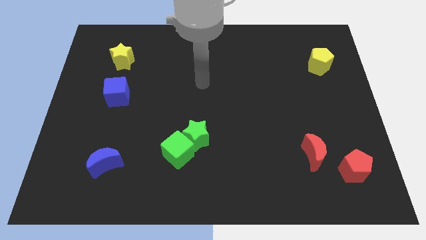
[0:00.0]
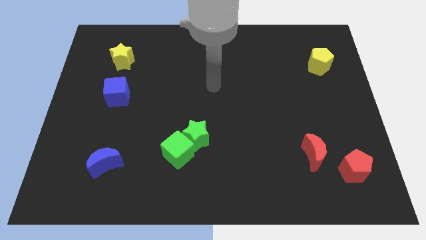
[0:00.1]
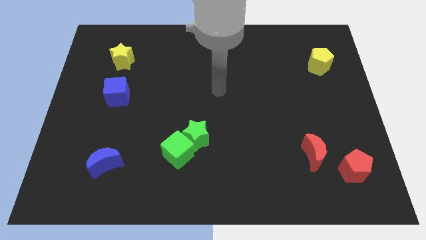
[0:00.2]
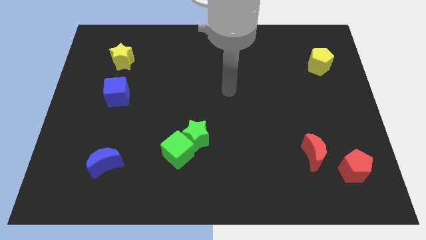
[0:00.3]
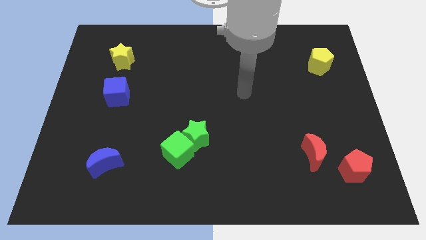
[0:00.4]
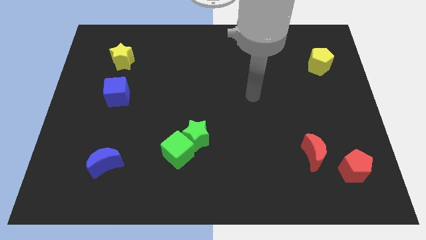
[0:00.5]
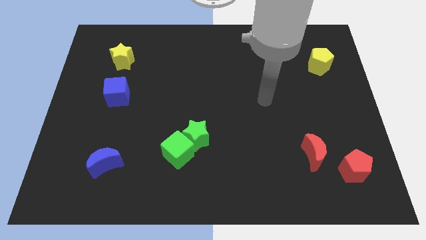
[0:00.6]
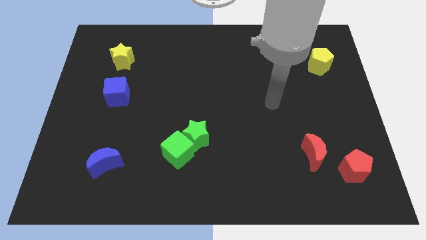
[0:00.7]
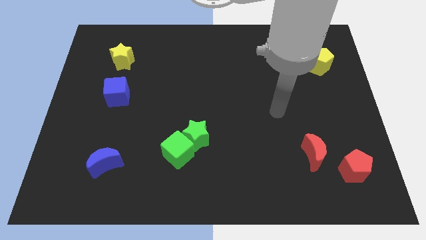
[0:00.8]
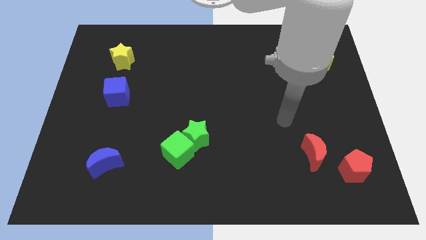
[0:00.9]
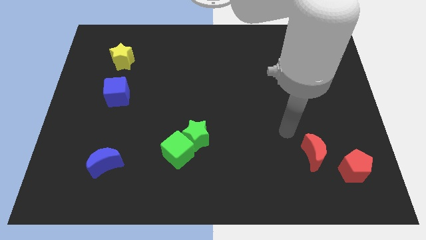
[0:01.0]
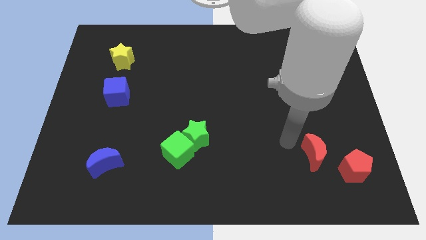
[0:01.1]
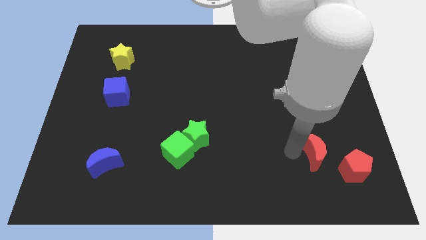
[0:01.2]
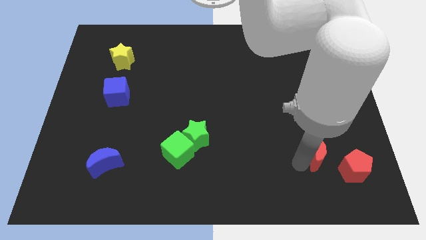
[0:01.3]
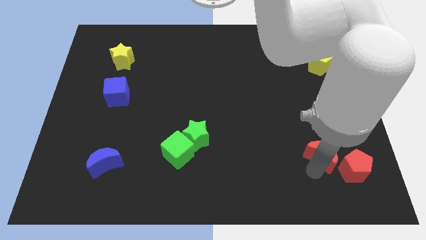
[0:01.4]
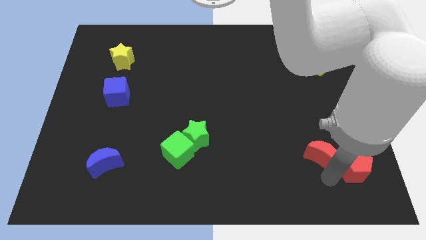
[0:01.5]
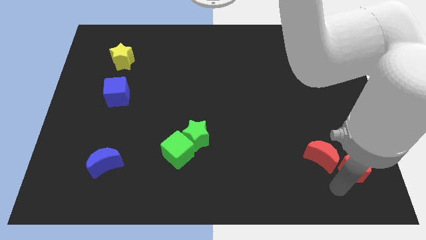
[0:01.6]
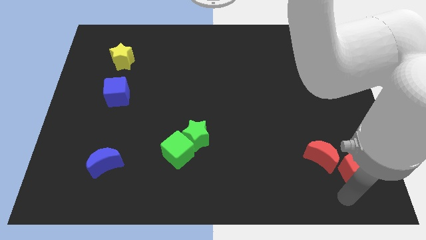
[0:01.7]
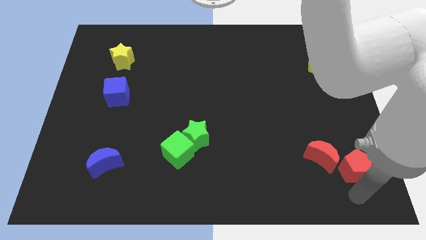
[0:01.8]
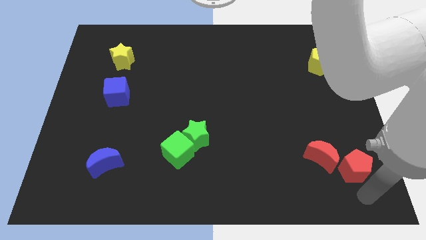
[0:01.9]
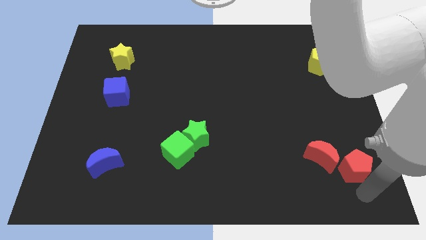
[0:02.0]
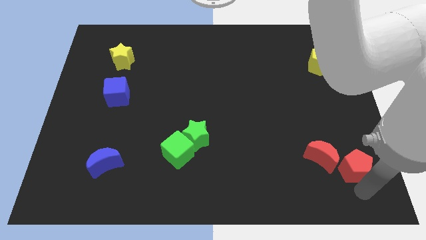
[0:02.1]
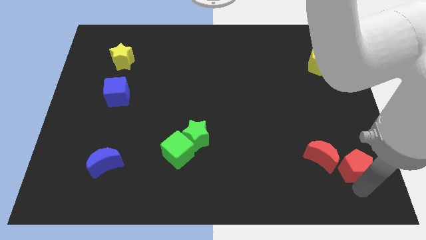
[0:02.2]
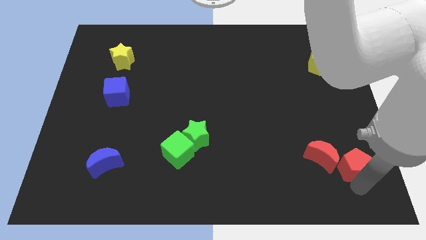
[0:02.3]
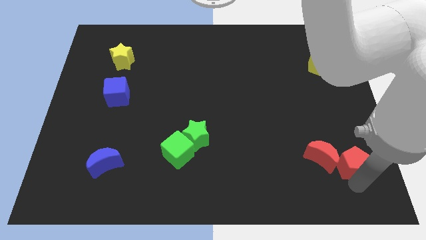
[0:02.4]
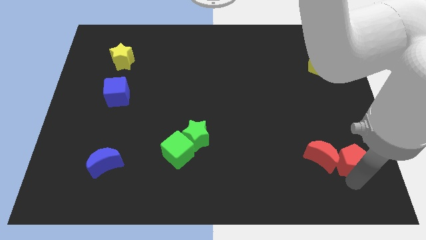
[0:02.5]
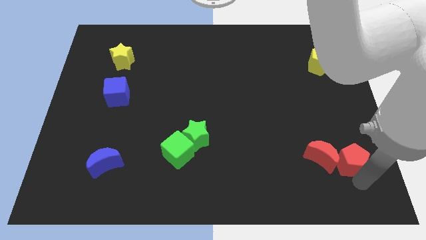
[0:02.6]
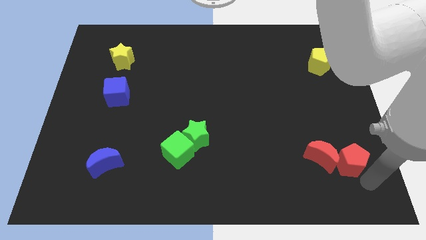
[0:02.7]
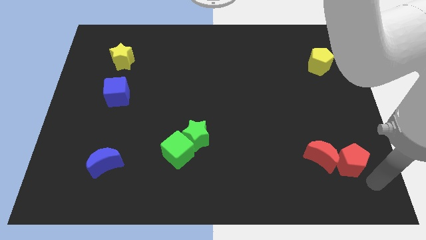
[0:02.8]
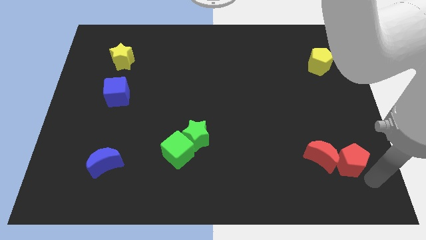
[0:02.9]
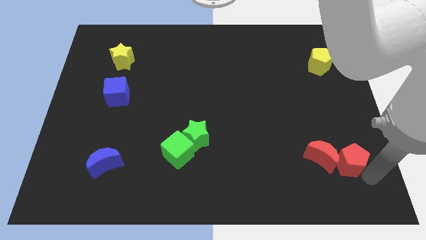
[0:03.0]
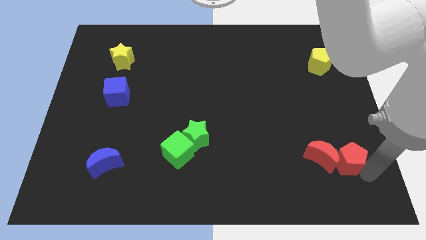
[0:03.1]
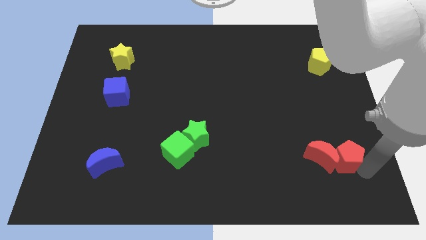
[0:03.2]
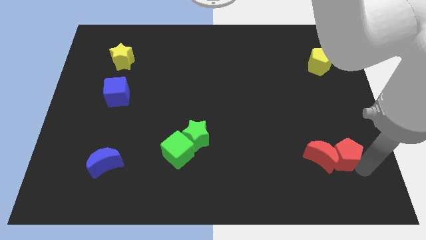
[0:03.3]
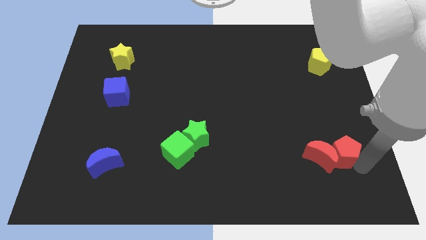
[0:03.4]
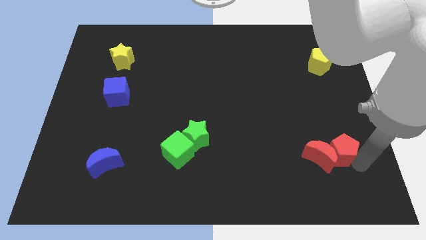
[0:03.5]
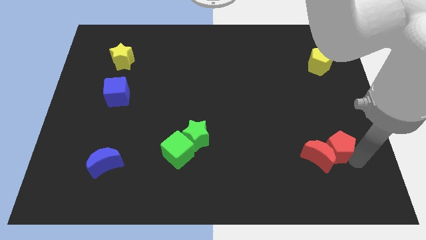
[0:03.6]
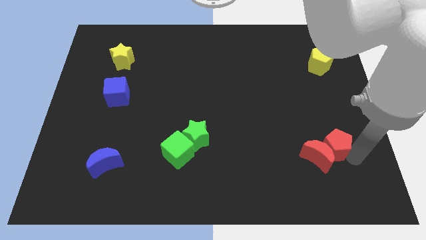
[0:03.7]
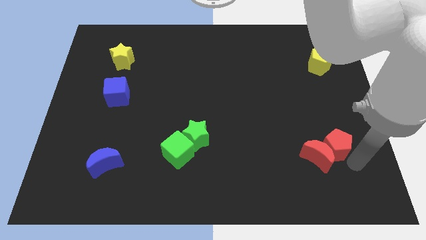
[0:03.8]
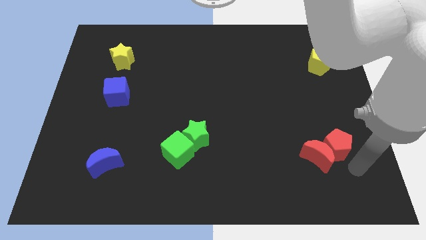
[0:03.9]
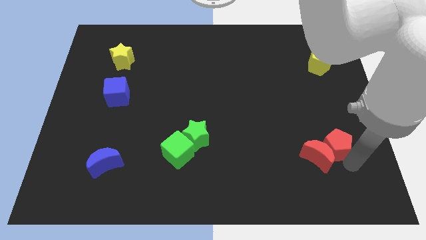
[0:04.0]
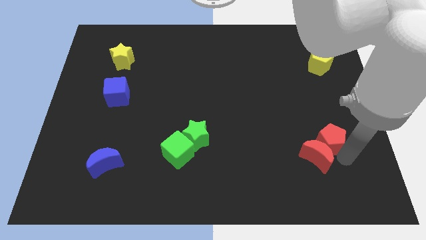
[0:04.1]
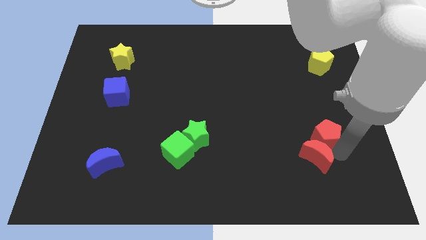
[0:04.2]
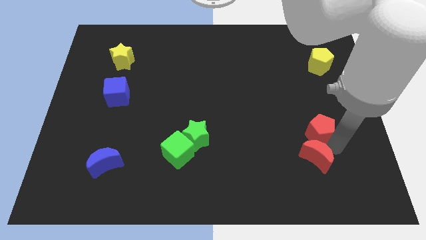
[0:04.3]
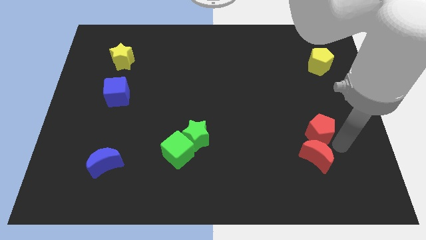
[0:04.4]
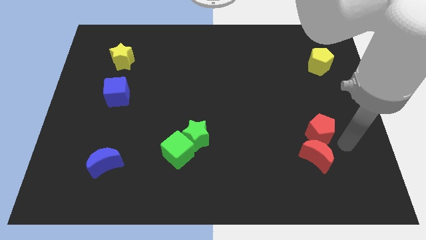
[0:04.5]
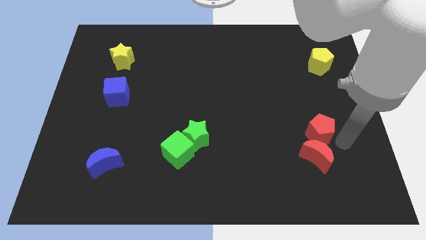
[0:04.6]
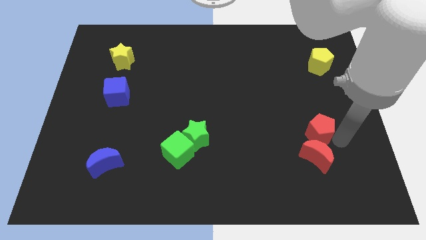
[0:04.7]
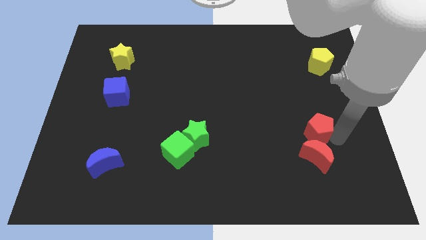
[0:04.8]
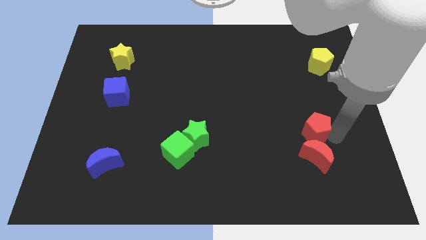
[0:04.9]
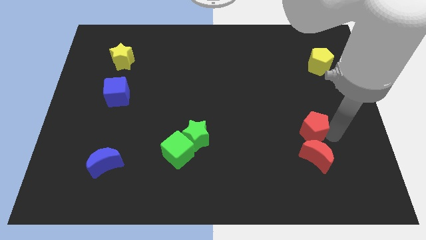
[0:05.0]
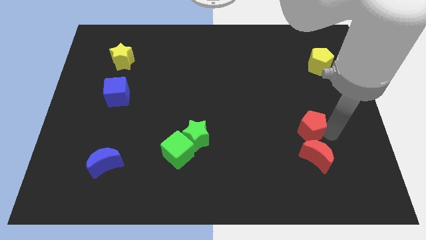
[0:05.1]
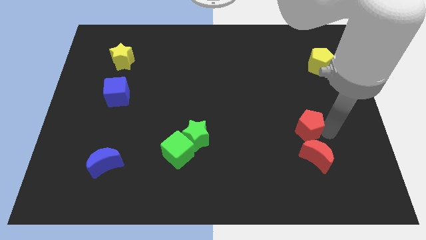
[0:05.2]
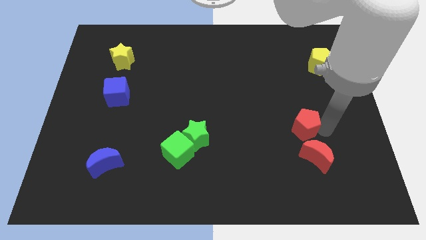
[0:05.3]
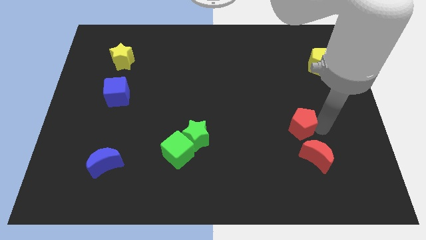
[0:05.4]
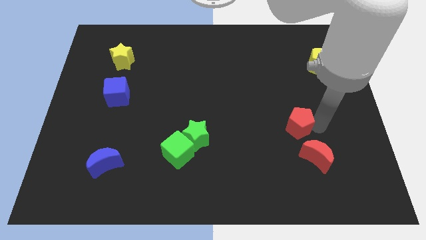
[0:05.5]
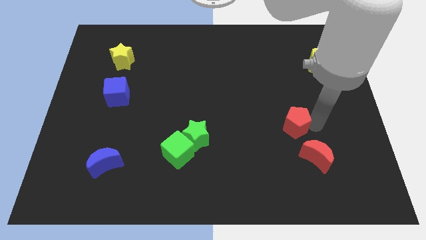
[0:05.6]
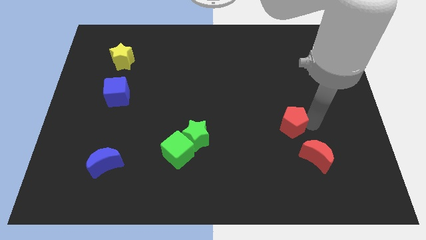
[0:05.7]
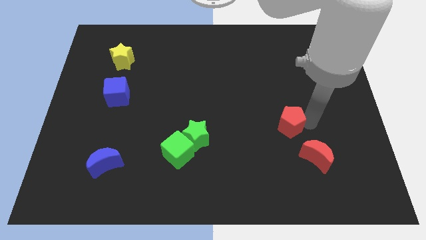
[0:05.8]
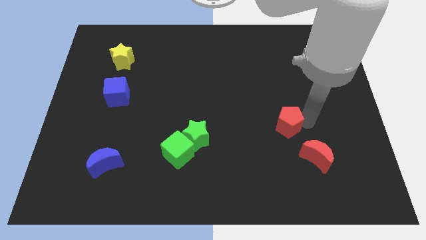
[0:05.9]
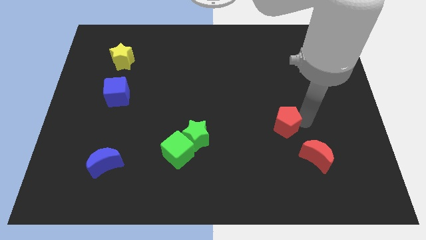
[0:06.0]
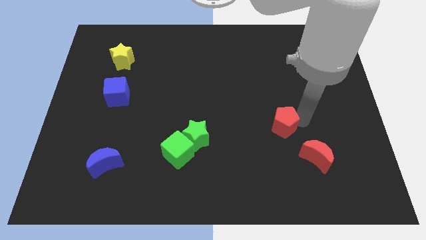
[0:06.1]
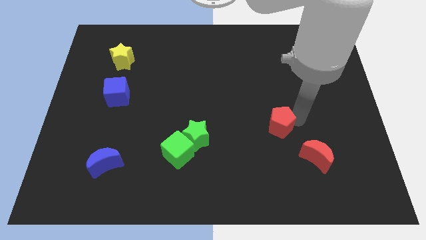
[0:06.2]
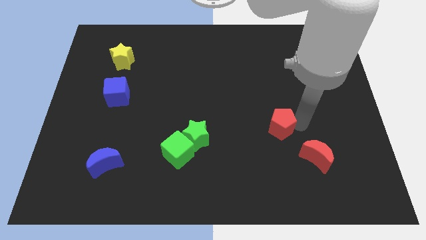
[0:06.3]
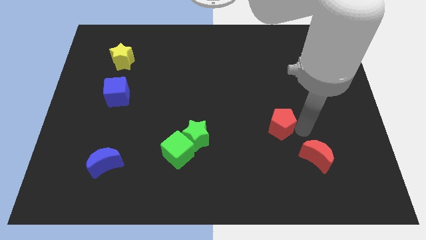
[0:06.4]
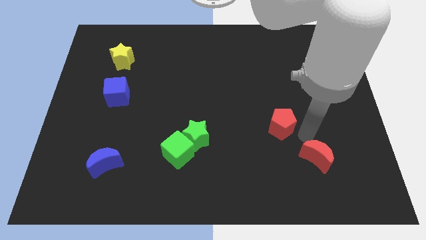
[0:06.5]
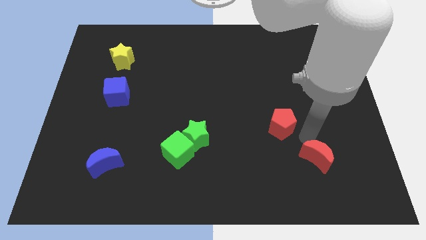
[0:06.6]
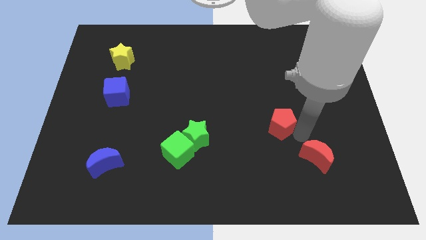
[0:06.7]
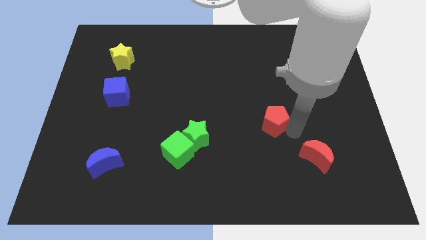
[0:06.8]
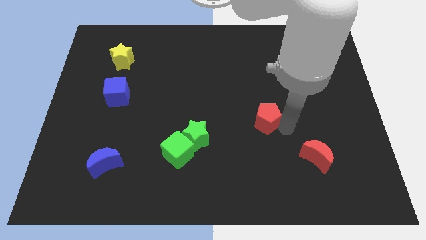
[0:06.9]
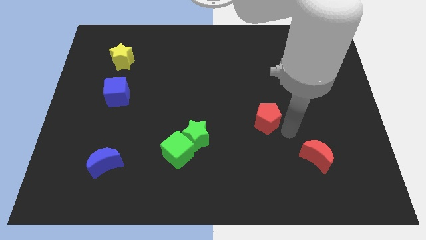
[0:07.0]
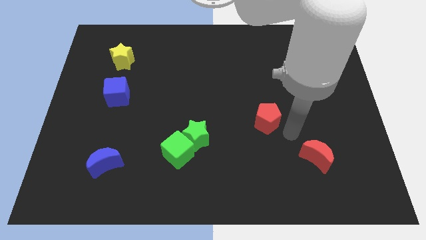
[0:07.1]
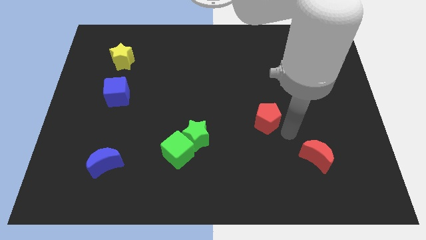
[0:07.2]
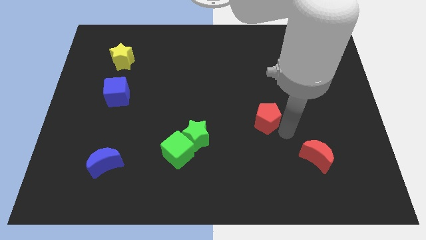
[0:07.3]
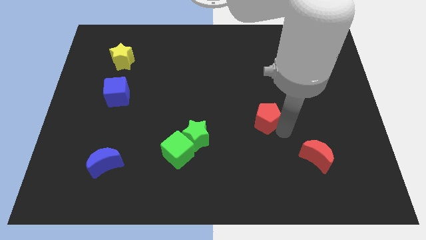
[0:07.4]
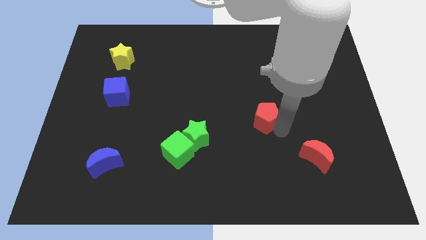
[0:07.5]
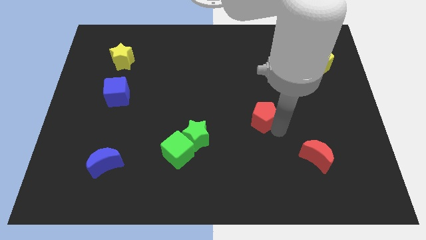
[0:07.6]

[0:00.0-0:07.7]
push the red pentagon to the center of the board

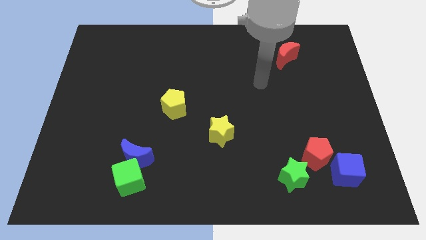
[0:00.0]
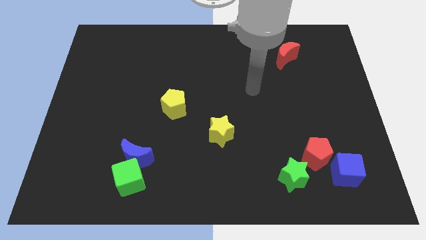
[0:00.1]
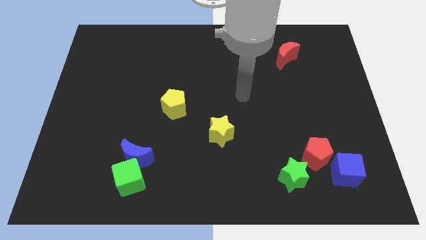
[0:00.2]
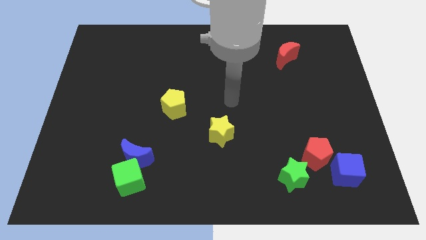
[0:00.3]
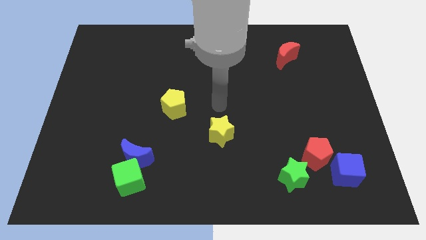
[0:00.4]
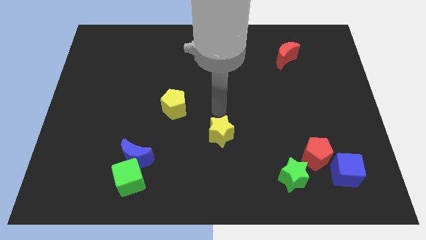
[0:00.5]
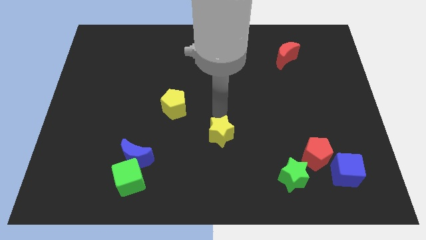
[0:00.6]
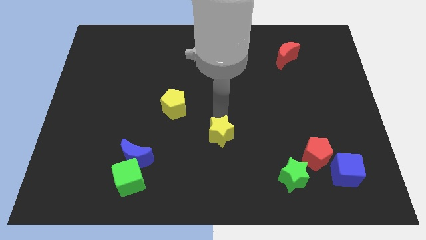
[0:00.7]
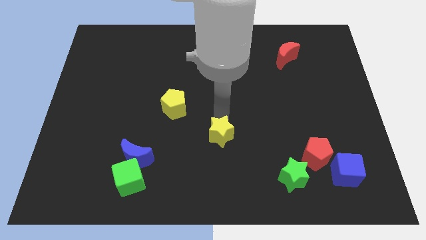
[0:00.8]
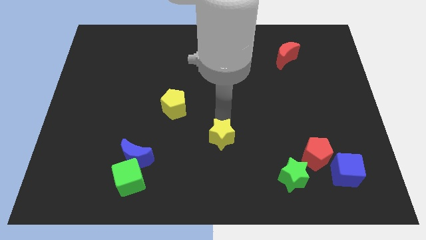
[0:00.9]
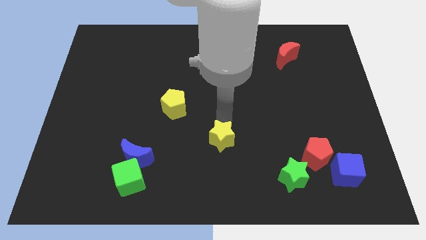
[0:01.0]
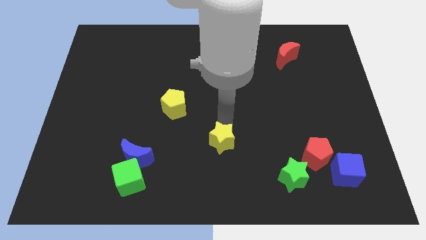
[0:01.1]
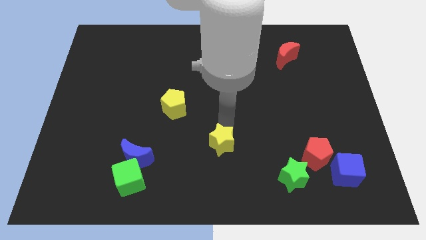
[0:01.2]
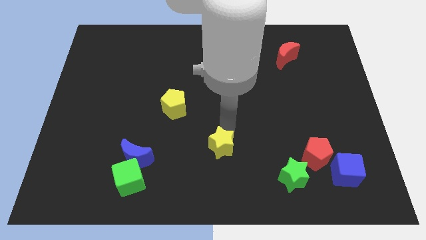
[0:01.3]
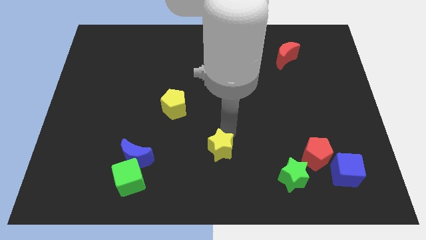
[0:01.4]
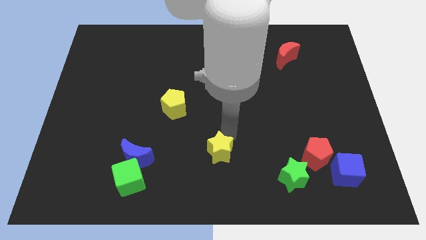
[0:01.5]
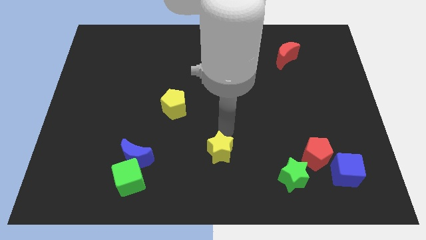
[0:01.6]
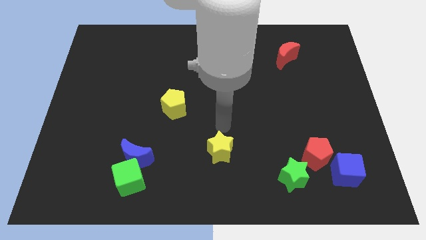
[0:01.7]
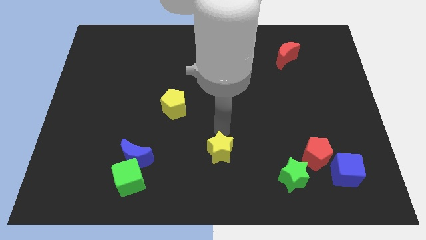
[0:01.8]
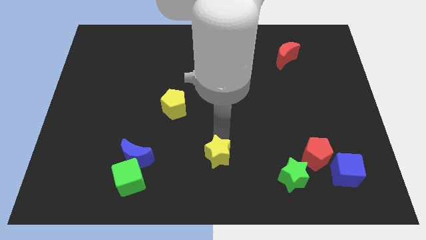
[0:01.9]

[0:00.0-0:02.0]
move the yellow star to the bottom
